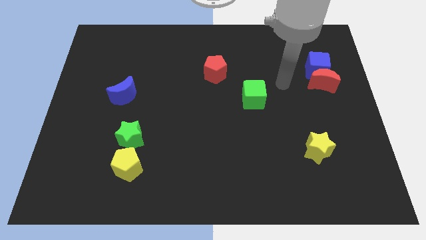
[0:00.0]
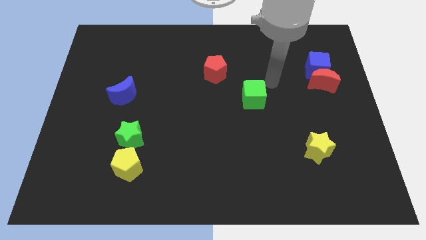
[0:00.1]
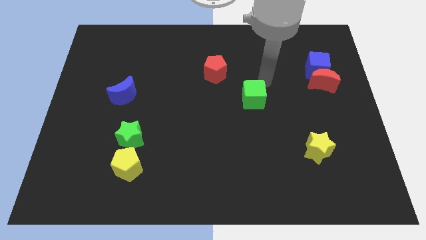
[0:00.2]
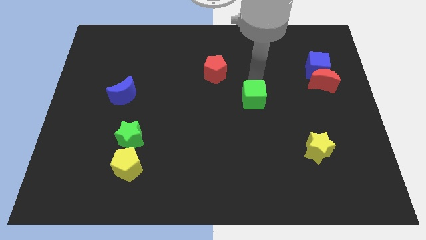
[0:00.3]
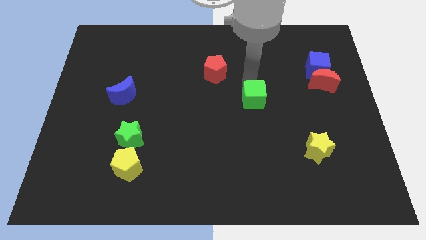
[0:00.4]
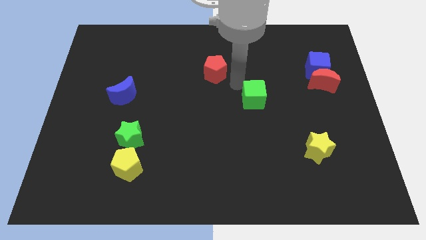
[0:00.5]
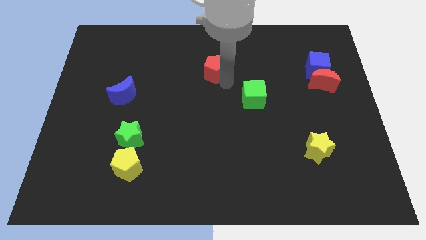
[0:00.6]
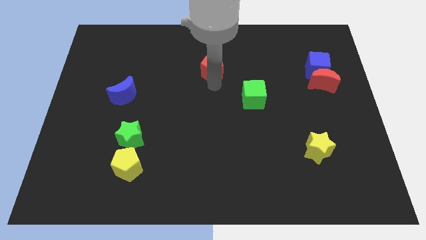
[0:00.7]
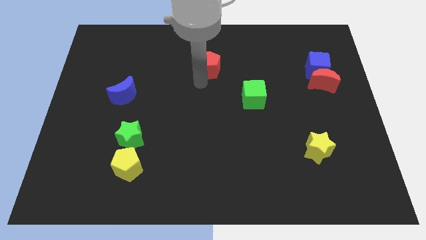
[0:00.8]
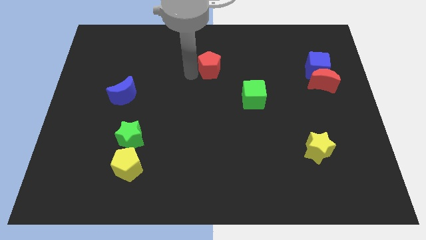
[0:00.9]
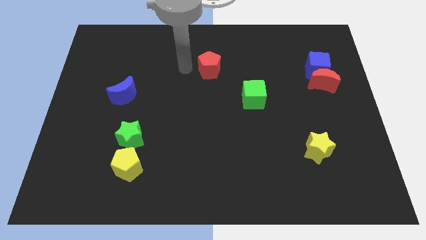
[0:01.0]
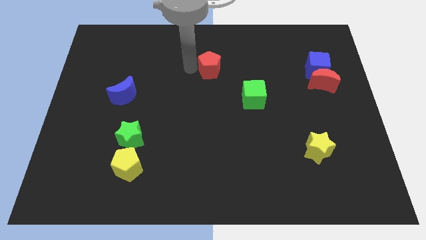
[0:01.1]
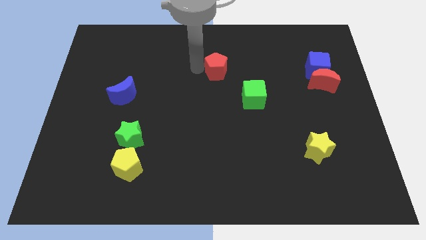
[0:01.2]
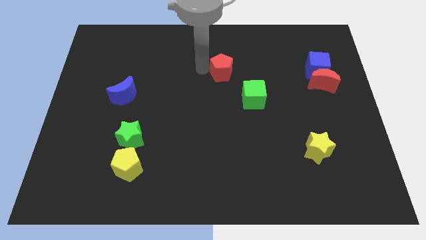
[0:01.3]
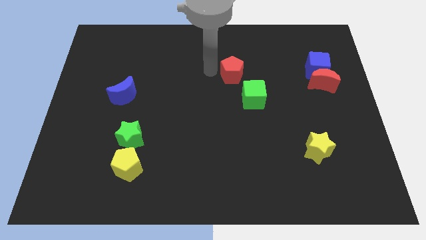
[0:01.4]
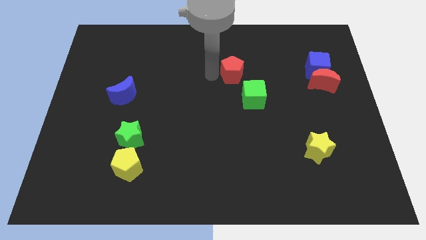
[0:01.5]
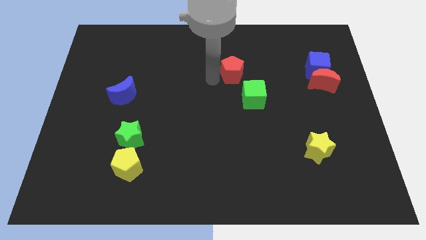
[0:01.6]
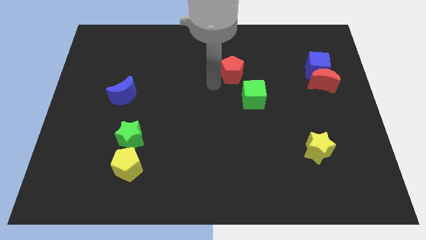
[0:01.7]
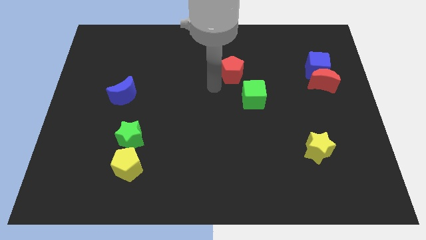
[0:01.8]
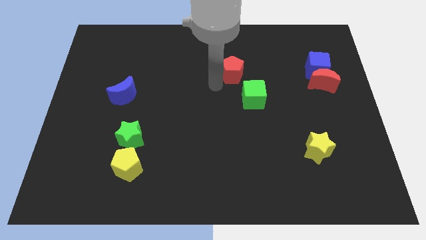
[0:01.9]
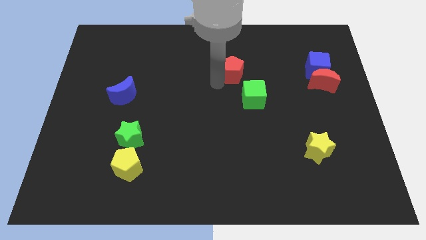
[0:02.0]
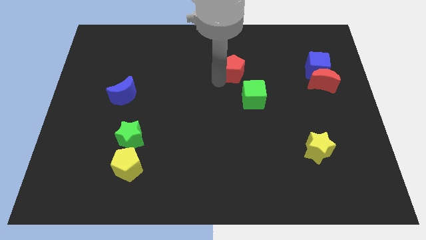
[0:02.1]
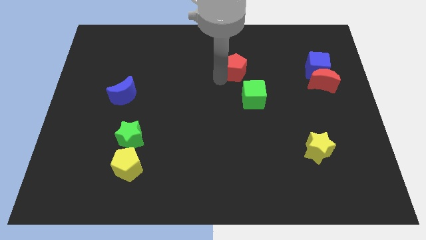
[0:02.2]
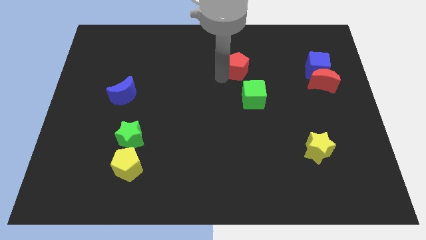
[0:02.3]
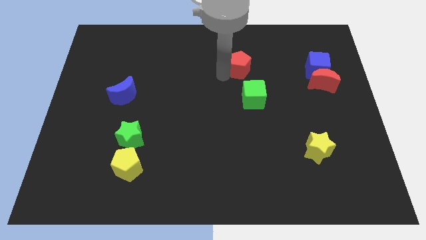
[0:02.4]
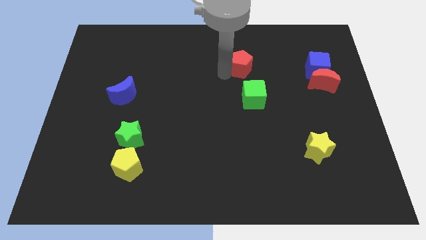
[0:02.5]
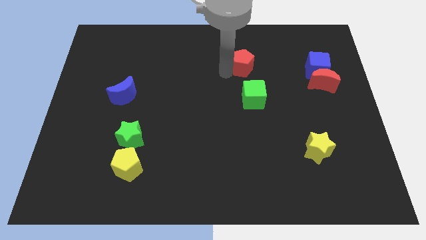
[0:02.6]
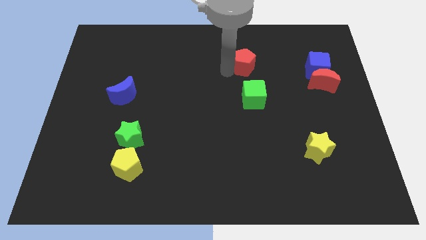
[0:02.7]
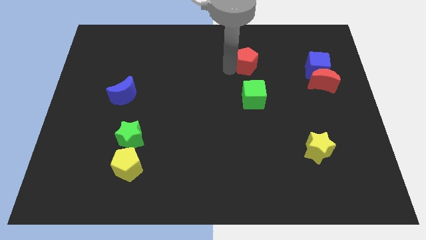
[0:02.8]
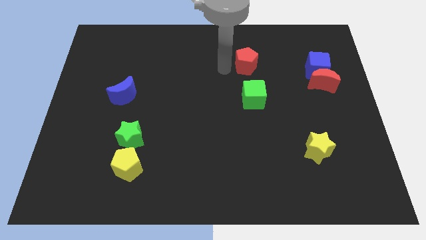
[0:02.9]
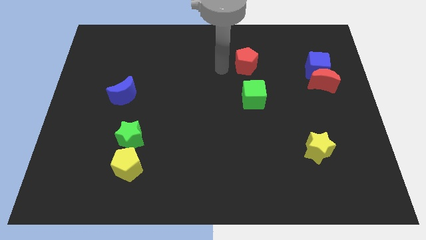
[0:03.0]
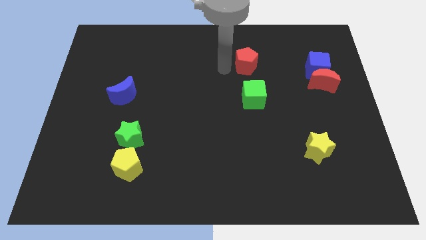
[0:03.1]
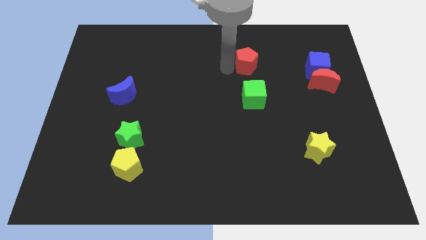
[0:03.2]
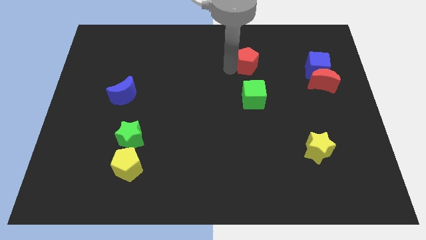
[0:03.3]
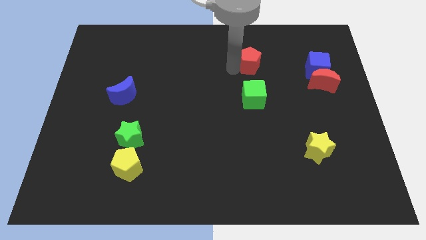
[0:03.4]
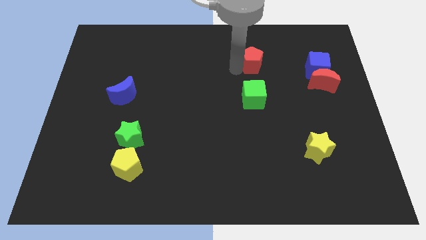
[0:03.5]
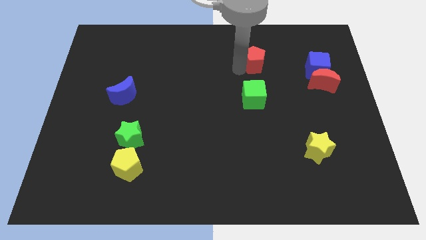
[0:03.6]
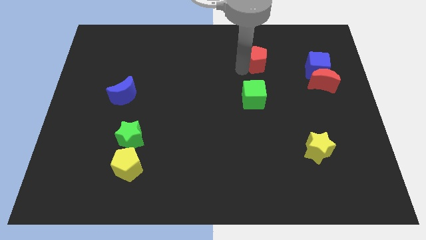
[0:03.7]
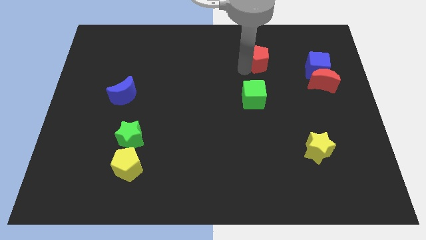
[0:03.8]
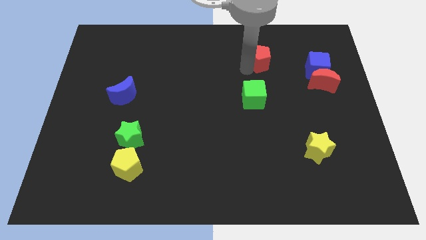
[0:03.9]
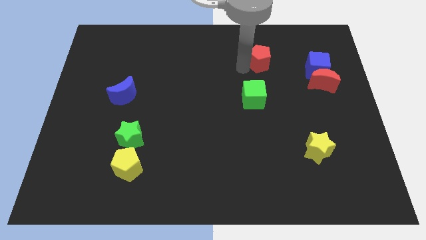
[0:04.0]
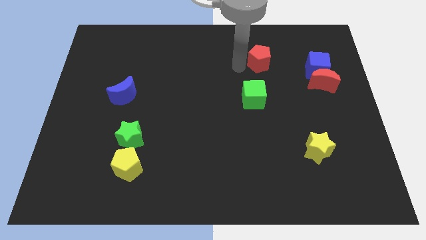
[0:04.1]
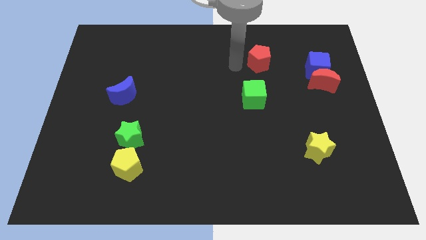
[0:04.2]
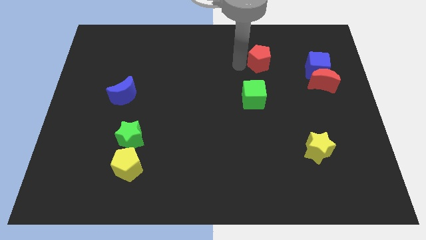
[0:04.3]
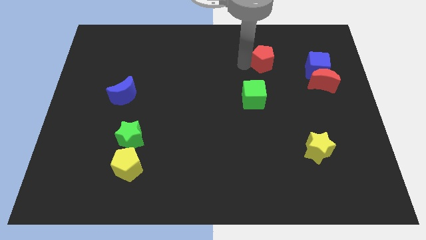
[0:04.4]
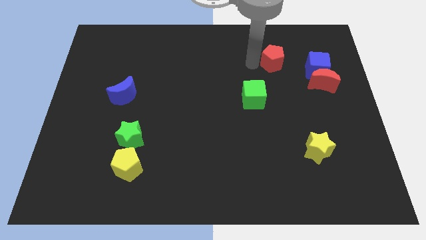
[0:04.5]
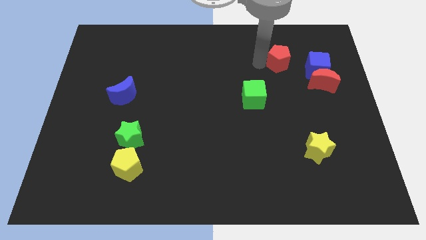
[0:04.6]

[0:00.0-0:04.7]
slide the red pentagon diagonally up and to the left of the blue cube

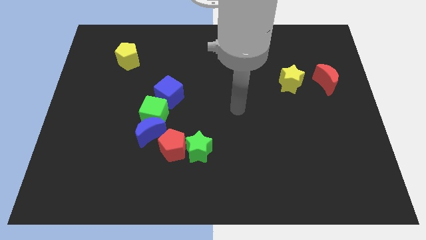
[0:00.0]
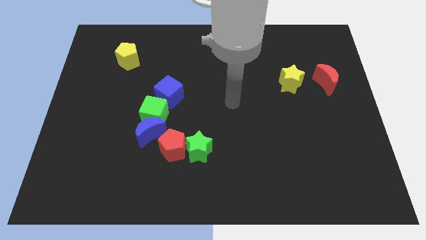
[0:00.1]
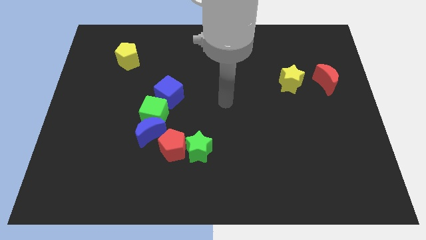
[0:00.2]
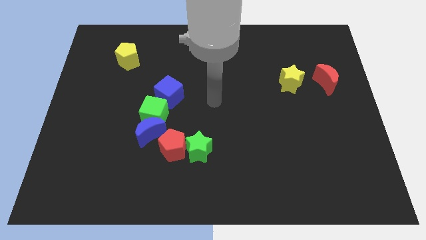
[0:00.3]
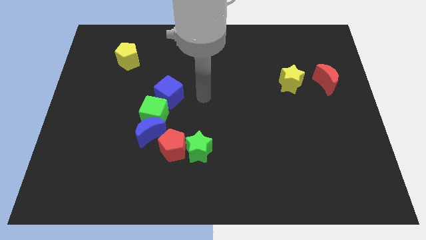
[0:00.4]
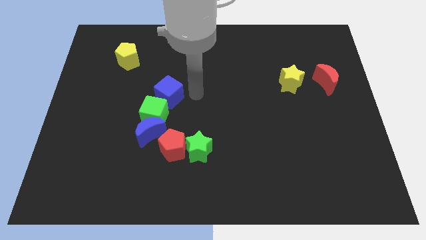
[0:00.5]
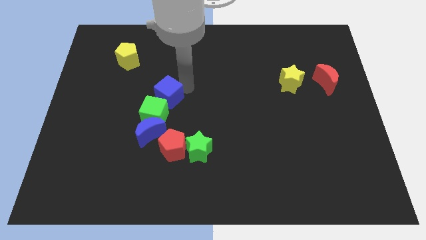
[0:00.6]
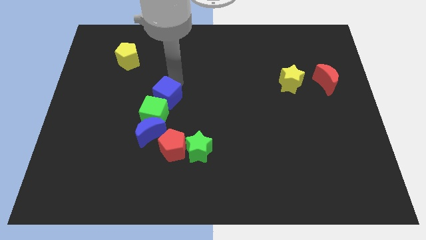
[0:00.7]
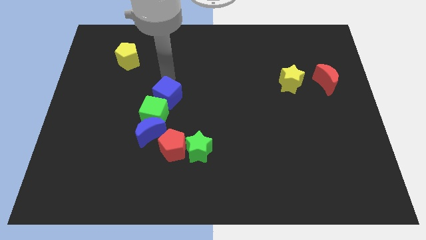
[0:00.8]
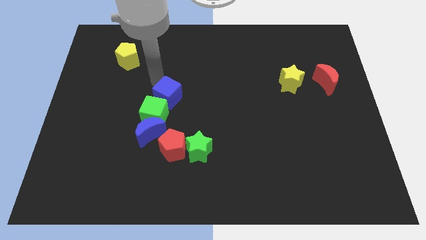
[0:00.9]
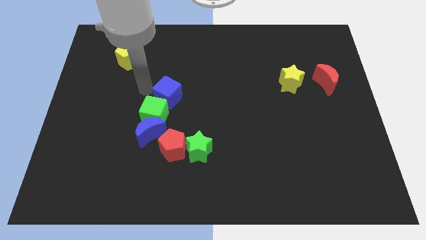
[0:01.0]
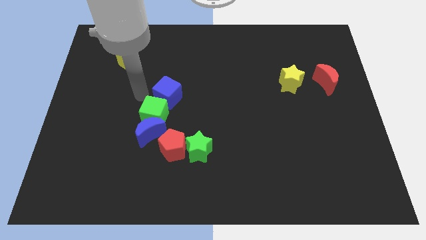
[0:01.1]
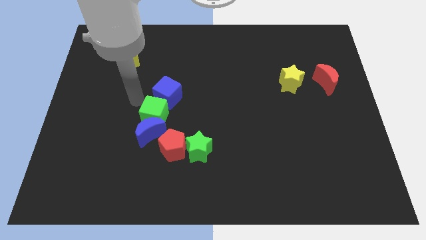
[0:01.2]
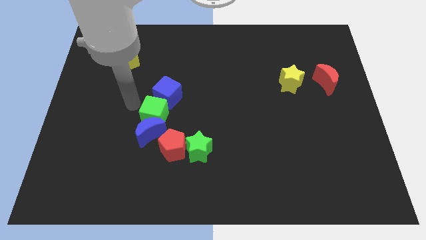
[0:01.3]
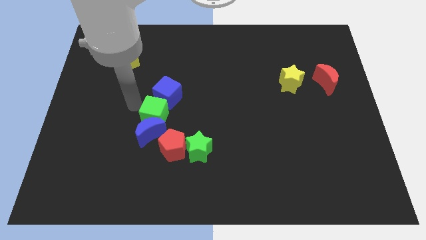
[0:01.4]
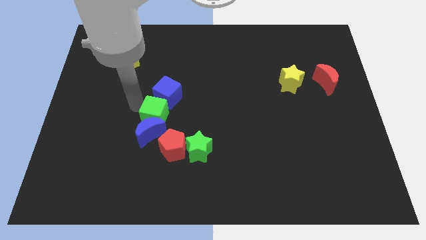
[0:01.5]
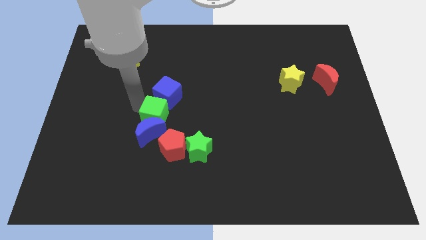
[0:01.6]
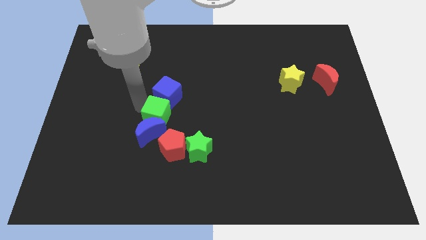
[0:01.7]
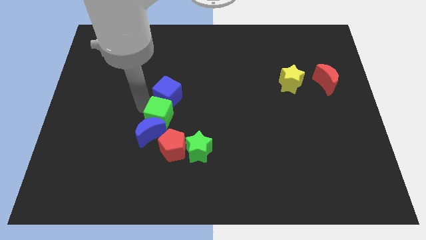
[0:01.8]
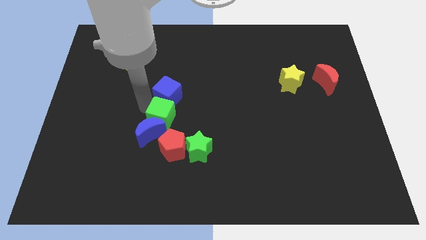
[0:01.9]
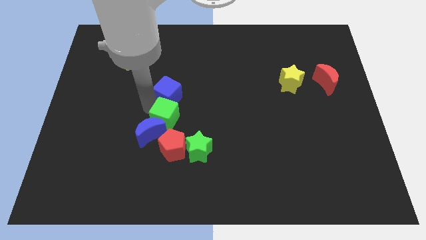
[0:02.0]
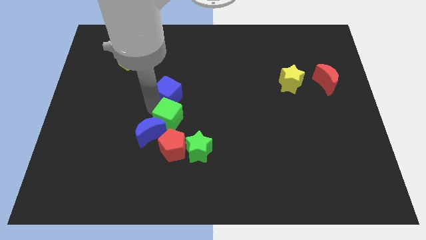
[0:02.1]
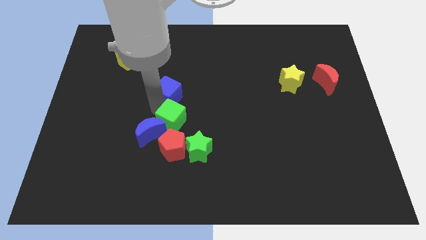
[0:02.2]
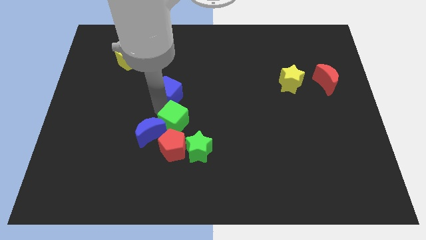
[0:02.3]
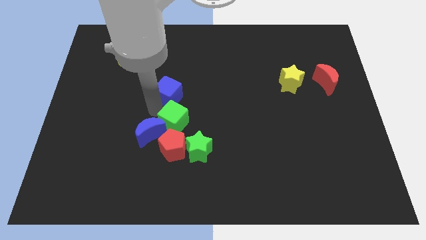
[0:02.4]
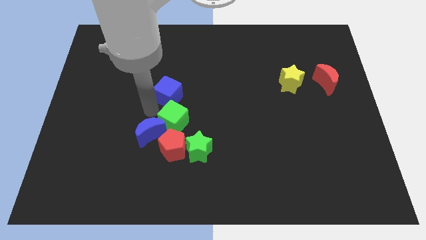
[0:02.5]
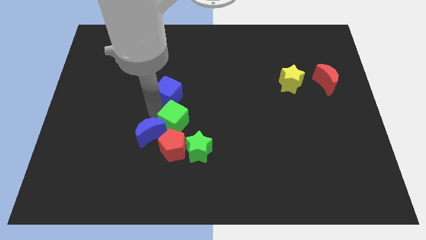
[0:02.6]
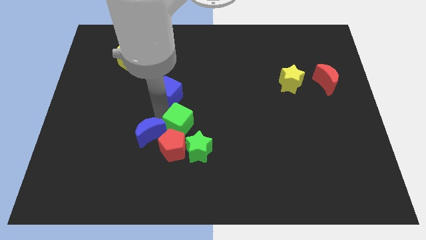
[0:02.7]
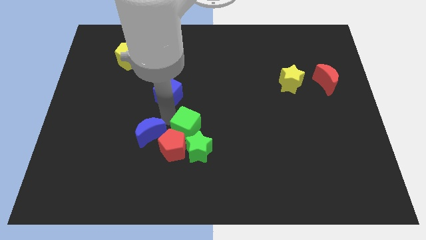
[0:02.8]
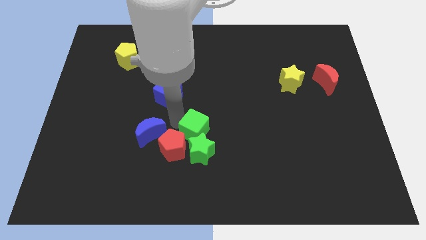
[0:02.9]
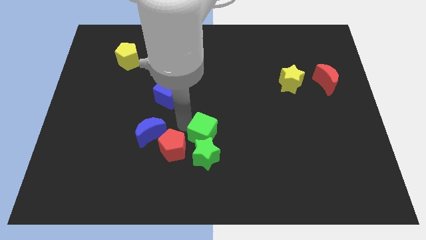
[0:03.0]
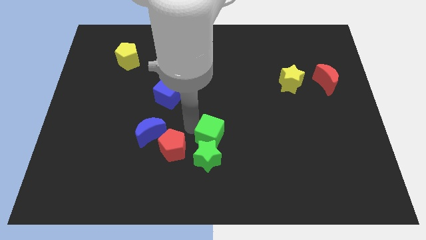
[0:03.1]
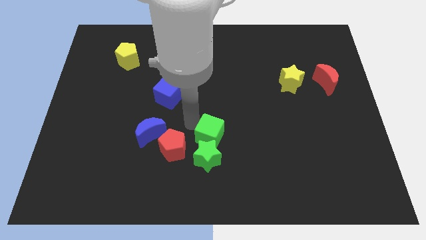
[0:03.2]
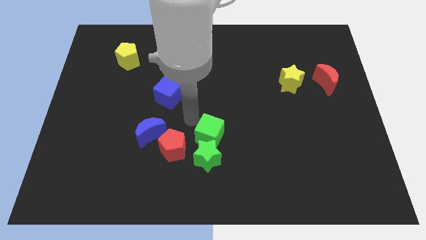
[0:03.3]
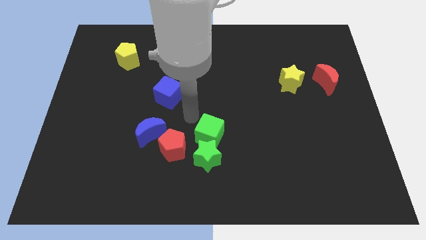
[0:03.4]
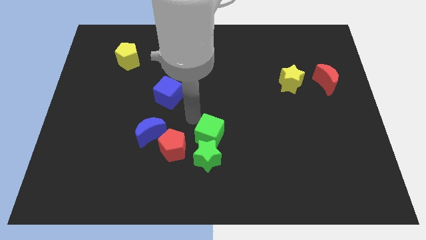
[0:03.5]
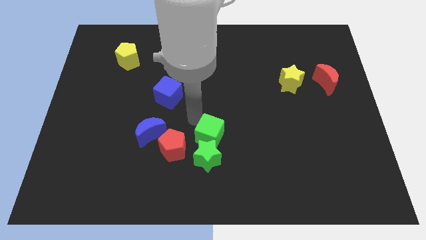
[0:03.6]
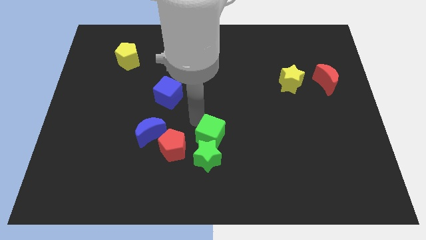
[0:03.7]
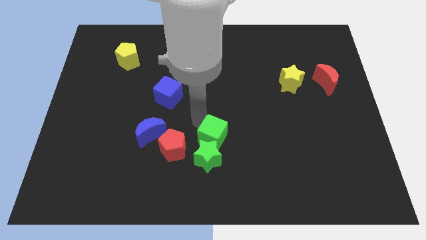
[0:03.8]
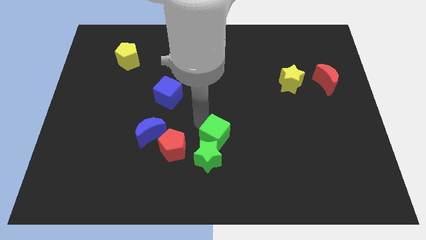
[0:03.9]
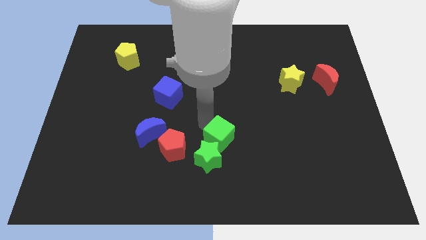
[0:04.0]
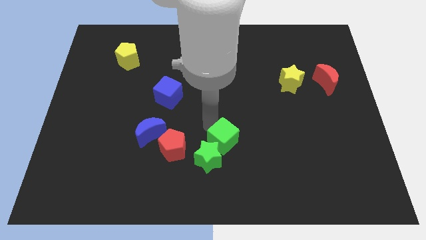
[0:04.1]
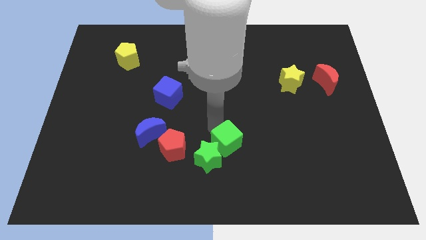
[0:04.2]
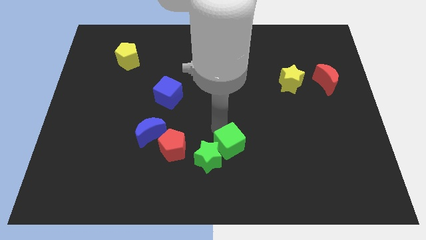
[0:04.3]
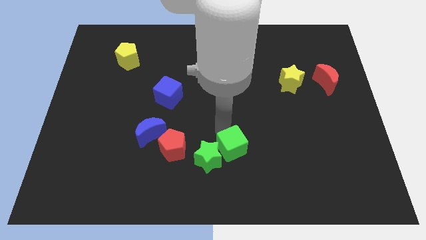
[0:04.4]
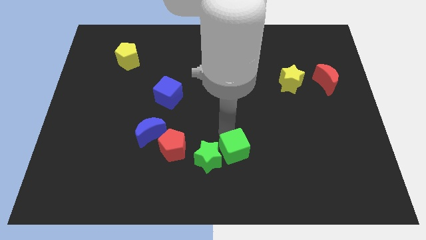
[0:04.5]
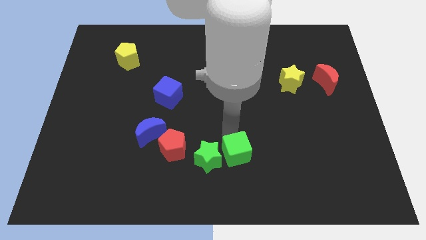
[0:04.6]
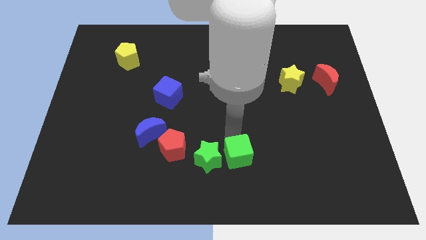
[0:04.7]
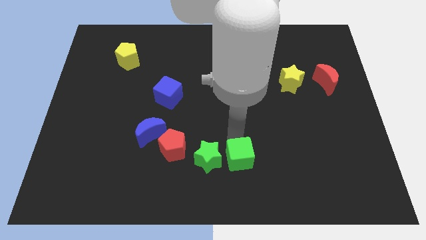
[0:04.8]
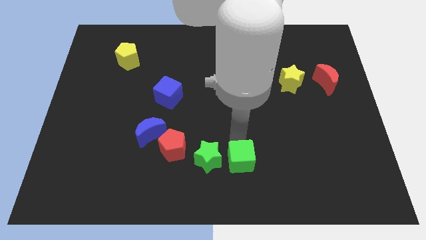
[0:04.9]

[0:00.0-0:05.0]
slide the green cube to the bottom right of the green star
